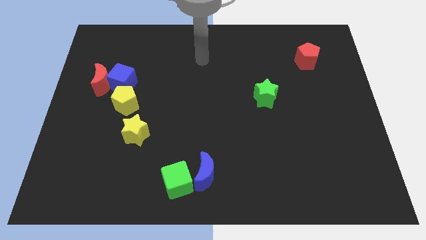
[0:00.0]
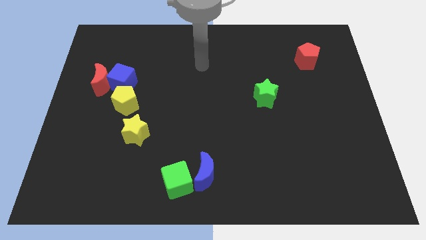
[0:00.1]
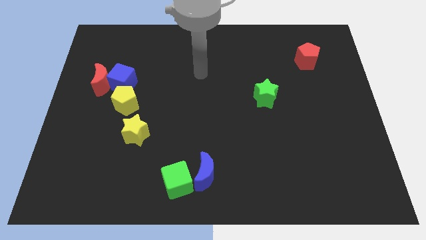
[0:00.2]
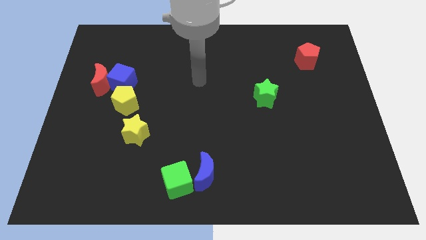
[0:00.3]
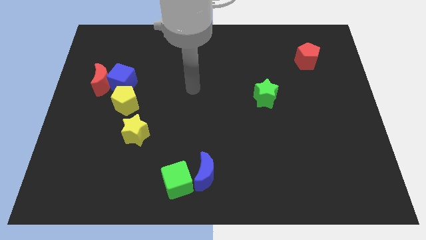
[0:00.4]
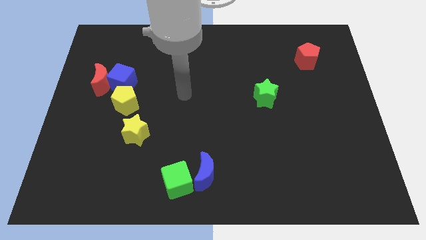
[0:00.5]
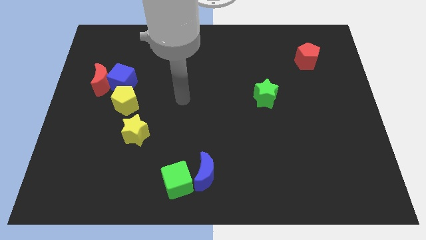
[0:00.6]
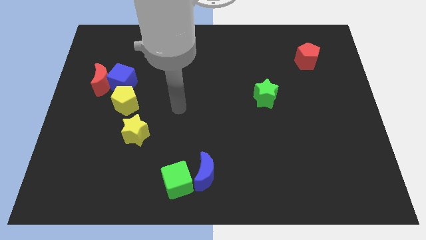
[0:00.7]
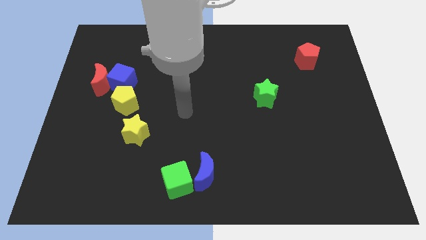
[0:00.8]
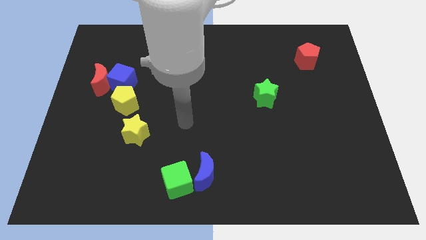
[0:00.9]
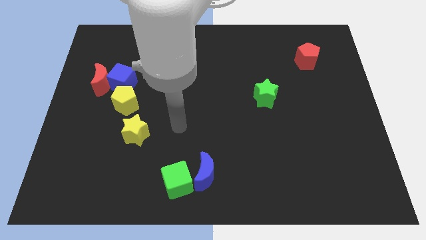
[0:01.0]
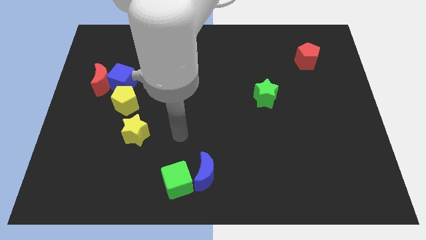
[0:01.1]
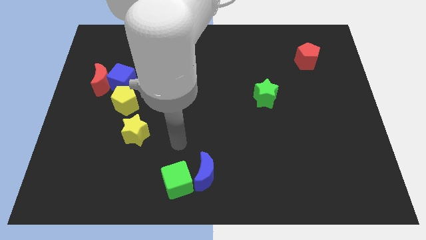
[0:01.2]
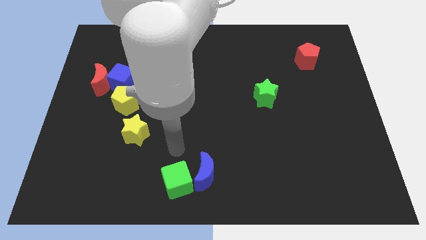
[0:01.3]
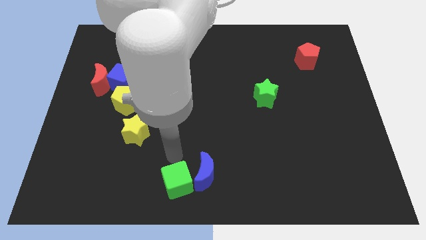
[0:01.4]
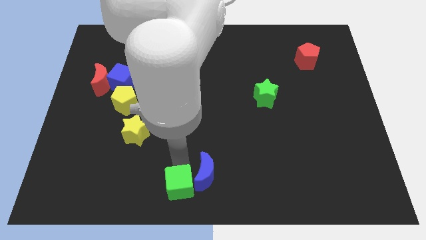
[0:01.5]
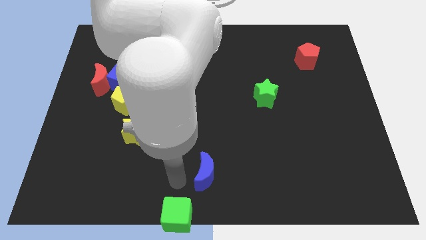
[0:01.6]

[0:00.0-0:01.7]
pull the blue moon apart from the green cube

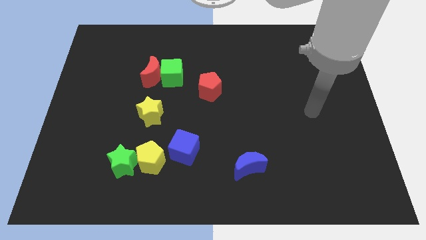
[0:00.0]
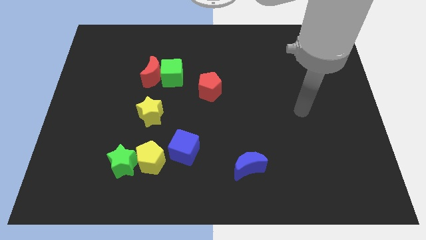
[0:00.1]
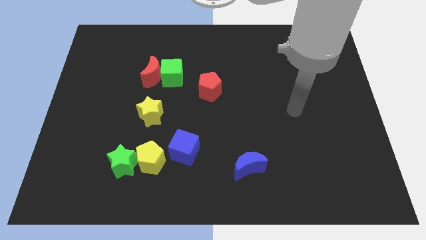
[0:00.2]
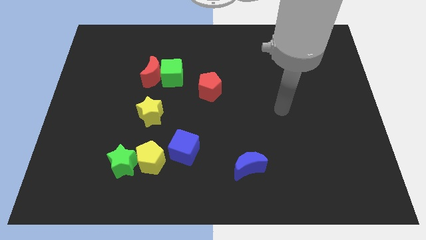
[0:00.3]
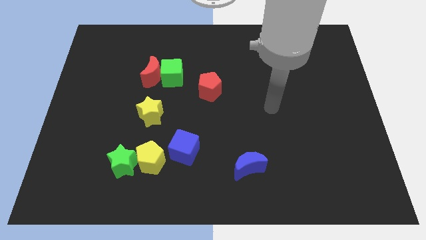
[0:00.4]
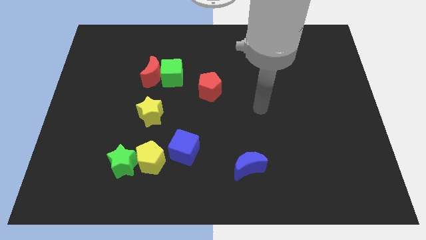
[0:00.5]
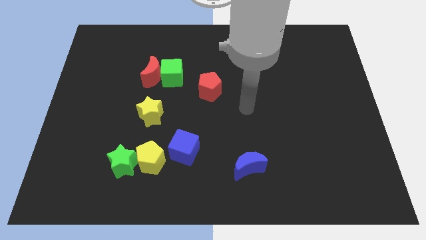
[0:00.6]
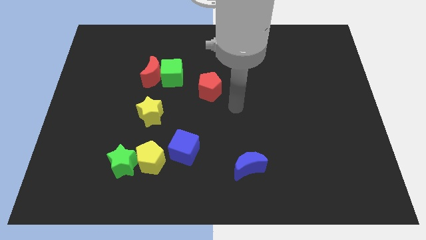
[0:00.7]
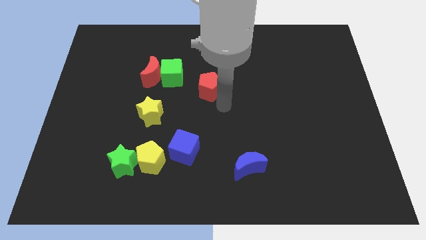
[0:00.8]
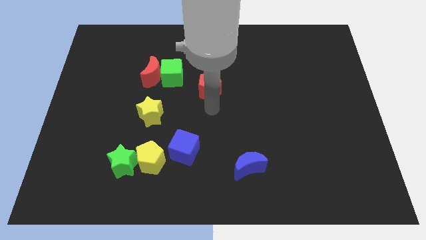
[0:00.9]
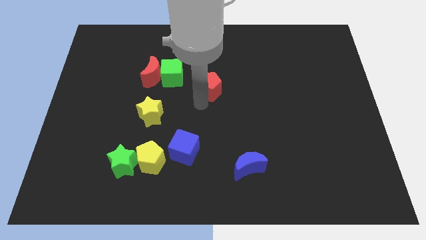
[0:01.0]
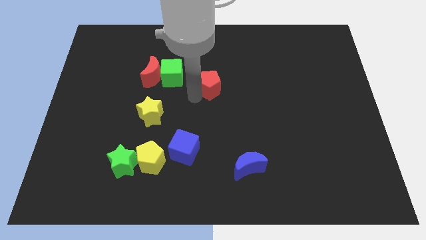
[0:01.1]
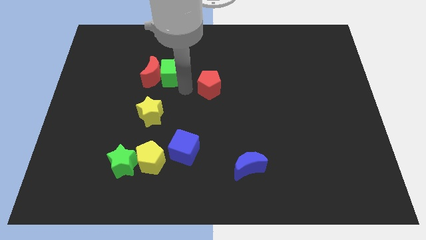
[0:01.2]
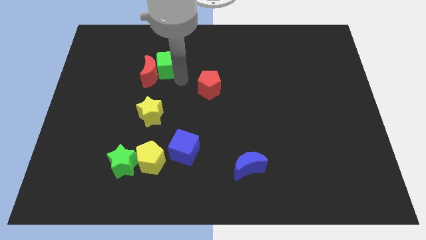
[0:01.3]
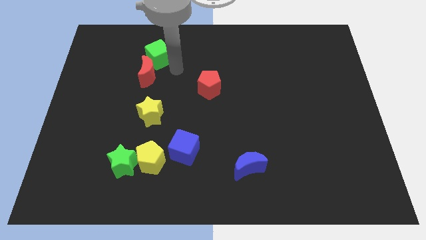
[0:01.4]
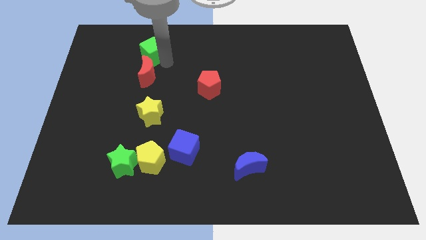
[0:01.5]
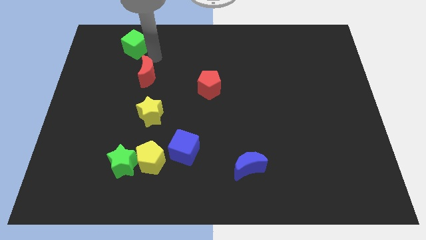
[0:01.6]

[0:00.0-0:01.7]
pull the red moon apart from the green cube

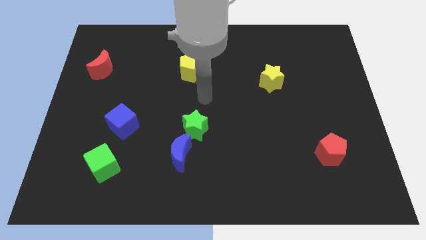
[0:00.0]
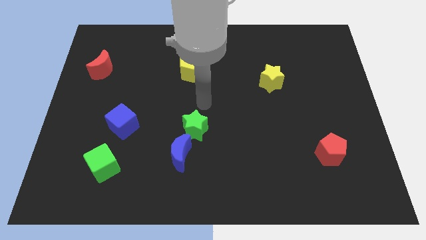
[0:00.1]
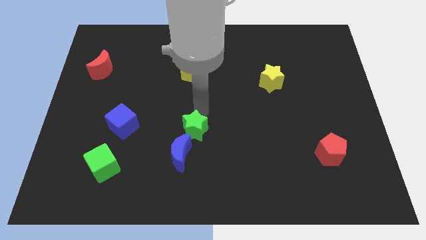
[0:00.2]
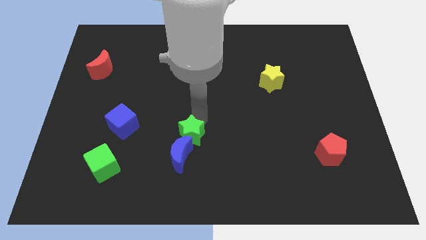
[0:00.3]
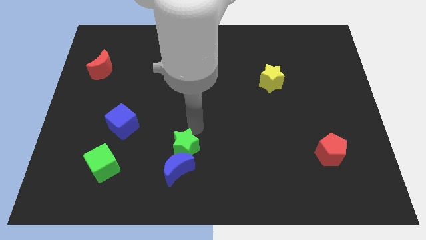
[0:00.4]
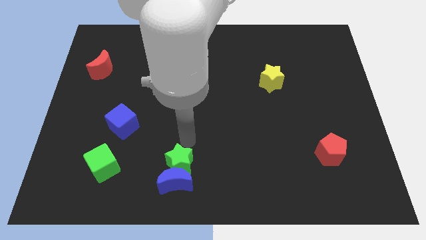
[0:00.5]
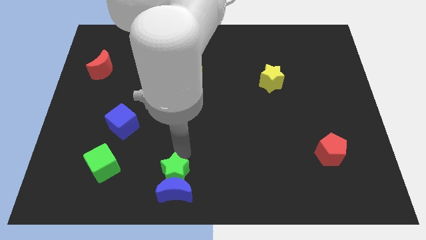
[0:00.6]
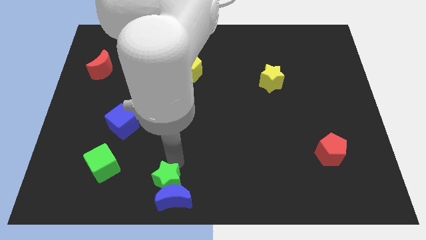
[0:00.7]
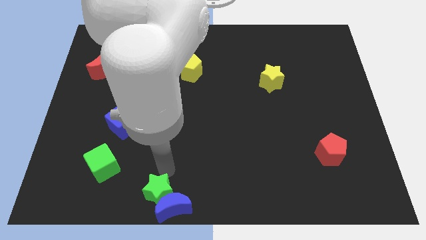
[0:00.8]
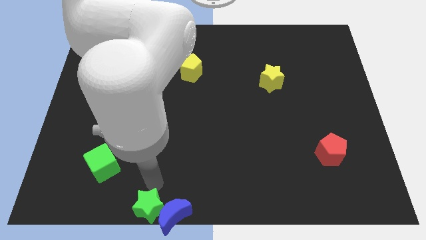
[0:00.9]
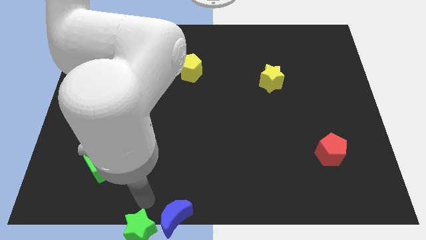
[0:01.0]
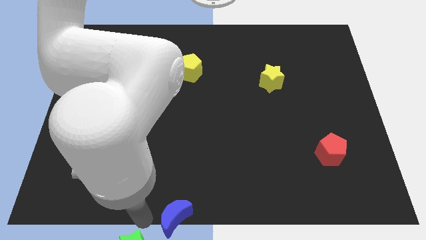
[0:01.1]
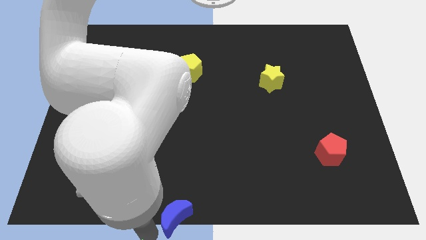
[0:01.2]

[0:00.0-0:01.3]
pull the blue moon apart from the green star

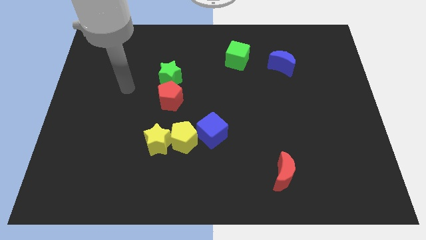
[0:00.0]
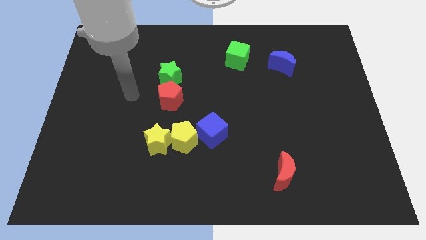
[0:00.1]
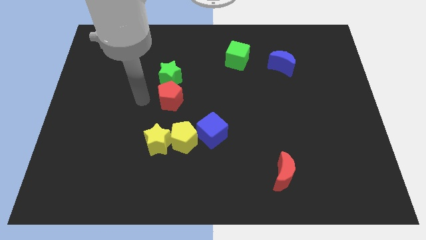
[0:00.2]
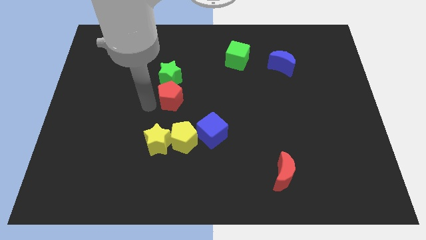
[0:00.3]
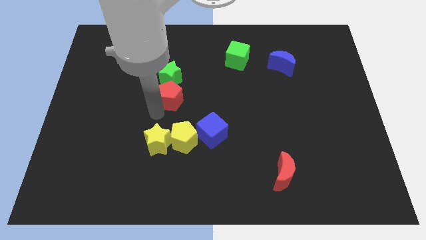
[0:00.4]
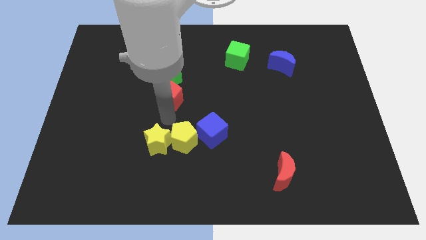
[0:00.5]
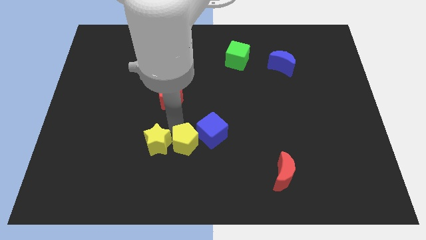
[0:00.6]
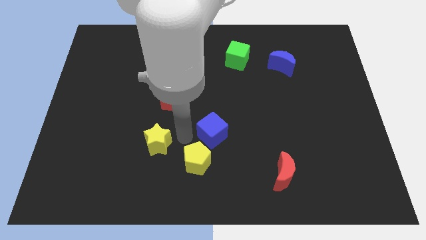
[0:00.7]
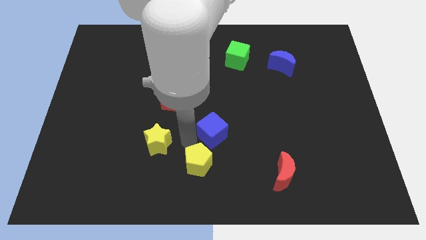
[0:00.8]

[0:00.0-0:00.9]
move the yellow star away from the yellow pentagon

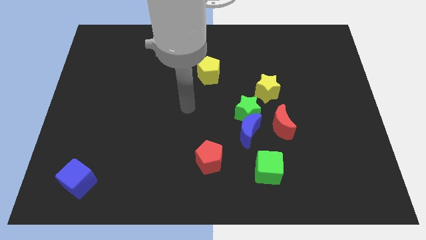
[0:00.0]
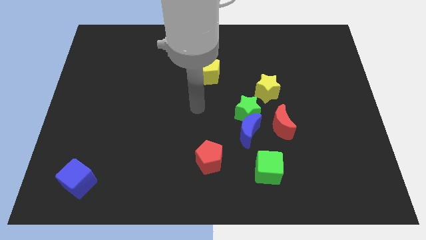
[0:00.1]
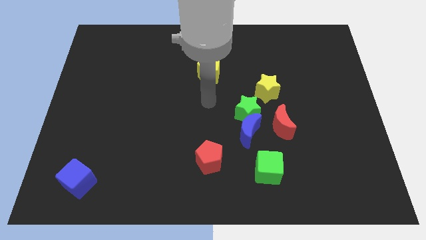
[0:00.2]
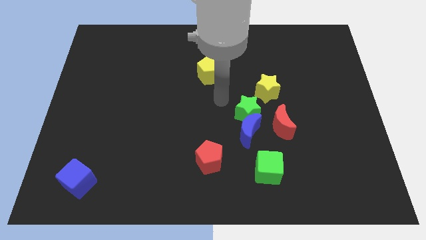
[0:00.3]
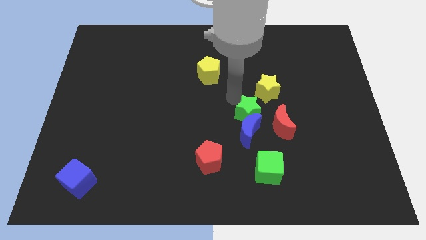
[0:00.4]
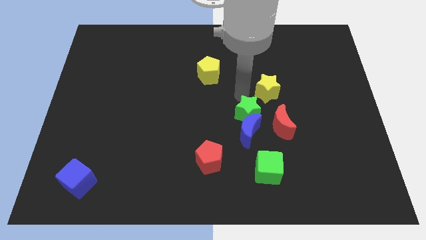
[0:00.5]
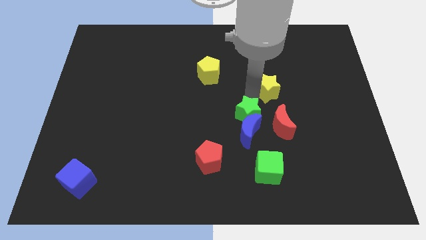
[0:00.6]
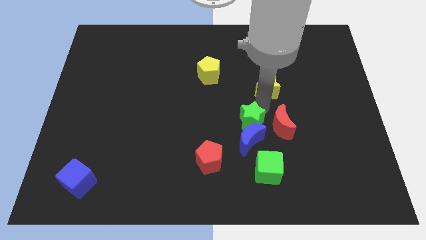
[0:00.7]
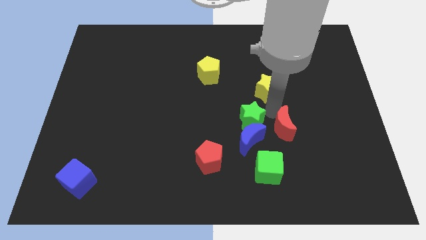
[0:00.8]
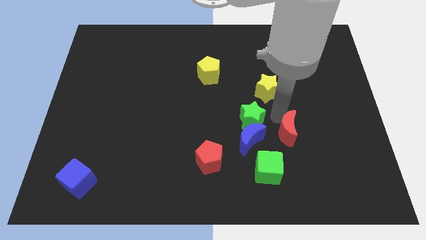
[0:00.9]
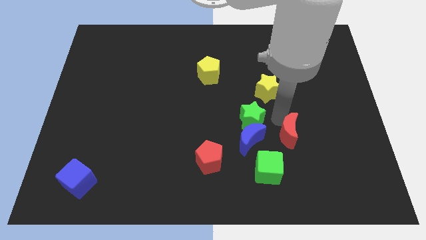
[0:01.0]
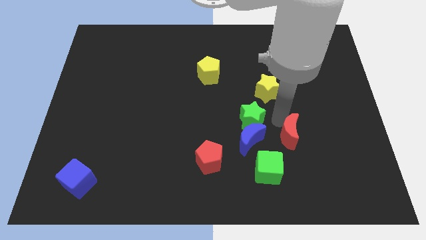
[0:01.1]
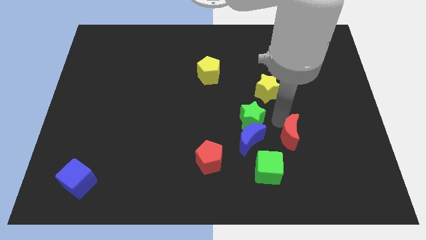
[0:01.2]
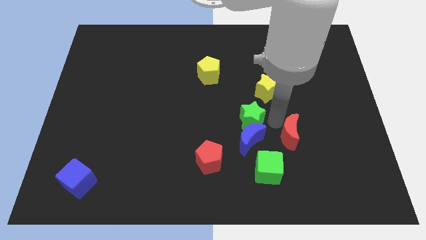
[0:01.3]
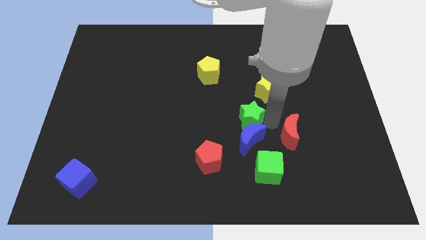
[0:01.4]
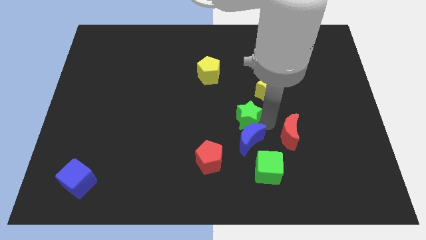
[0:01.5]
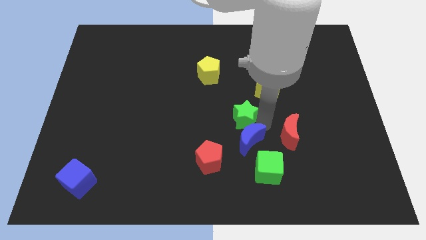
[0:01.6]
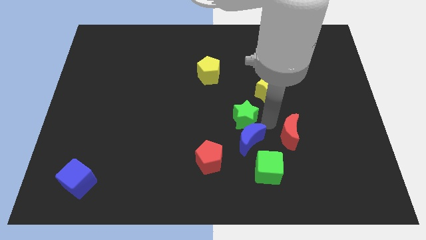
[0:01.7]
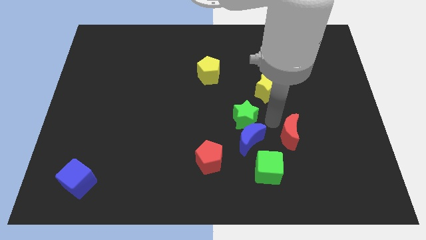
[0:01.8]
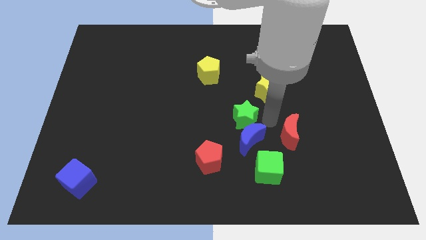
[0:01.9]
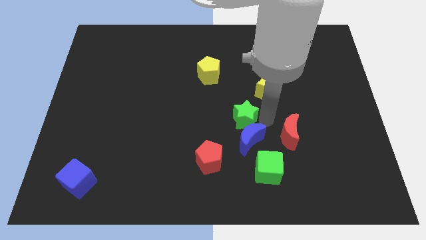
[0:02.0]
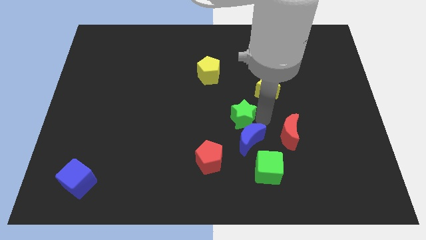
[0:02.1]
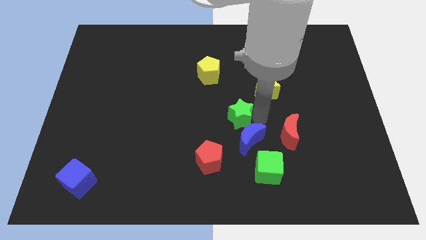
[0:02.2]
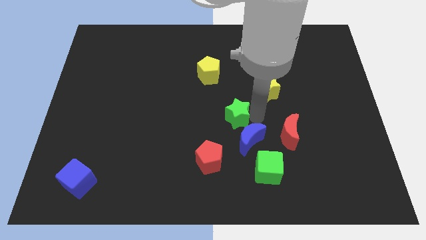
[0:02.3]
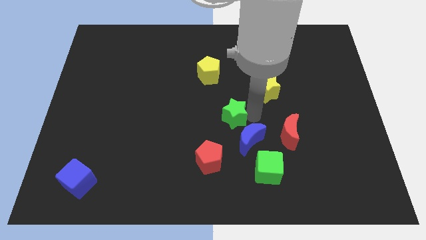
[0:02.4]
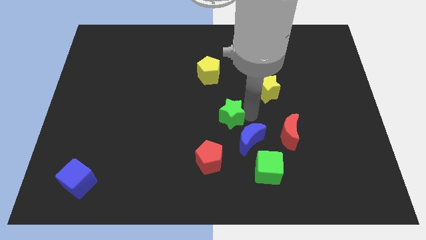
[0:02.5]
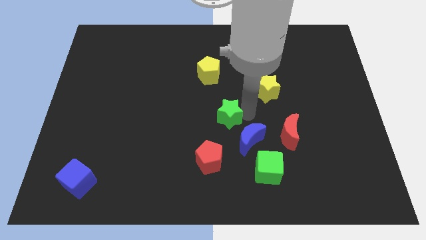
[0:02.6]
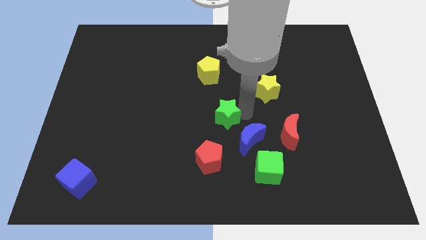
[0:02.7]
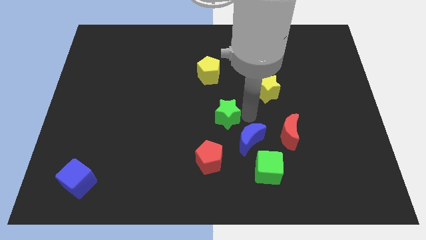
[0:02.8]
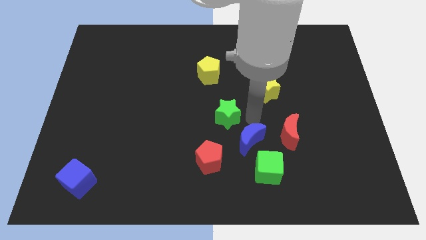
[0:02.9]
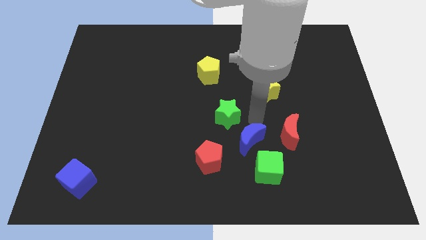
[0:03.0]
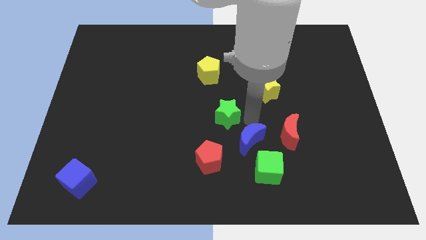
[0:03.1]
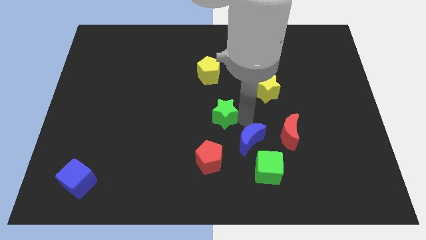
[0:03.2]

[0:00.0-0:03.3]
separate the green star from the blue moon, red moon, and yellow star

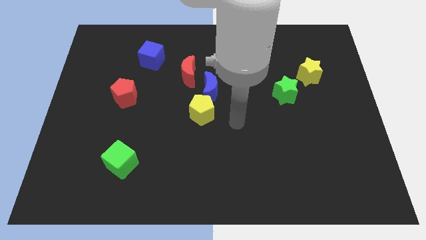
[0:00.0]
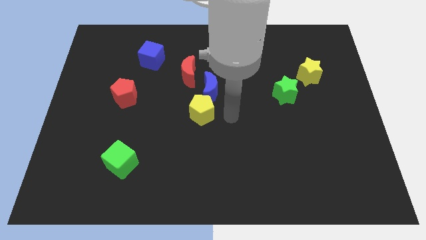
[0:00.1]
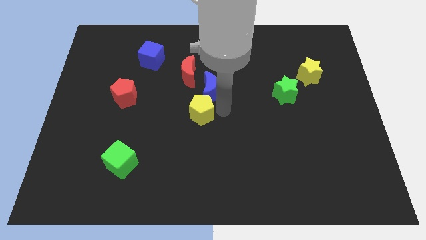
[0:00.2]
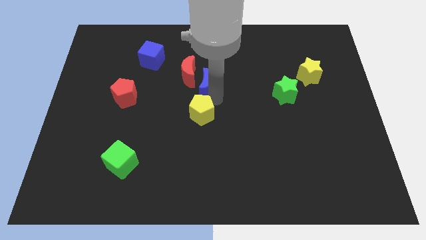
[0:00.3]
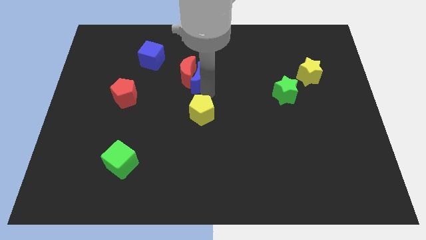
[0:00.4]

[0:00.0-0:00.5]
pull the yellow pentagon apart from the blue moon
